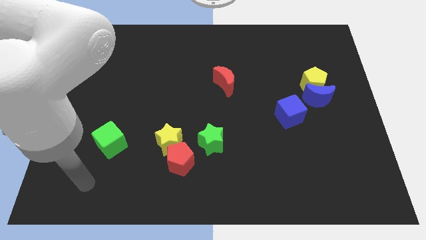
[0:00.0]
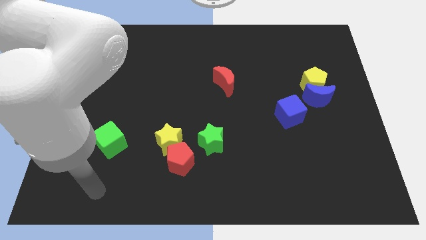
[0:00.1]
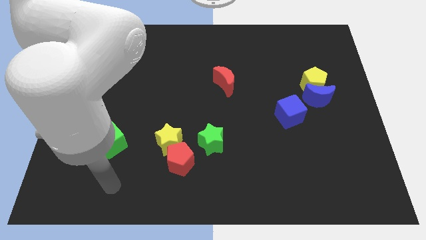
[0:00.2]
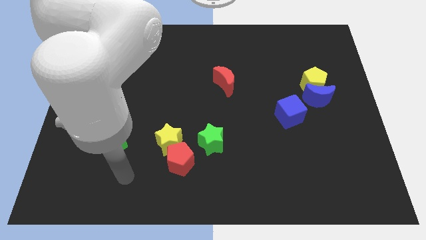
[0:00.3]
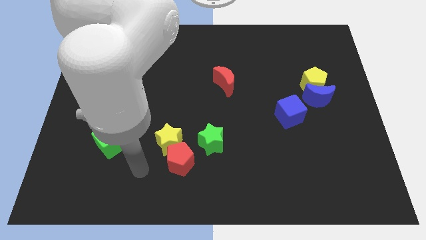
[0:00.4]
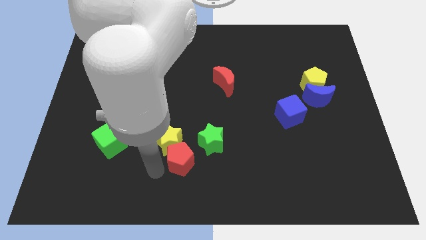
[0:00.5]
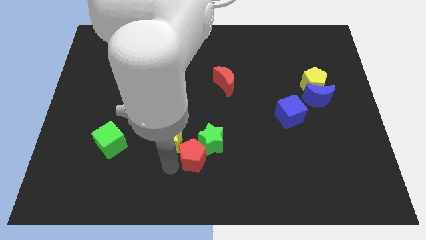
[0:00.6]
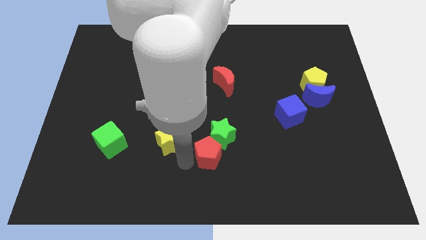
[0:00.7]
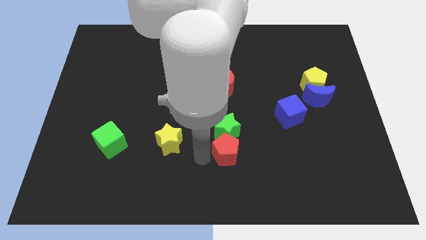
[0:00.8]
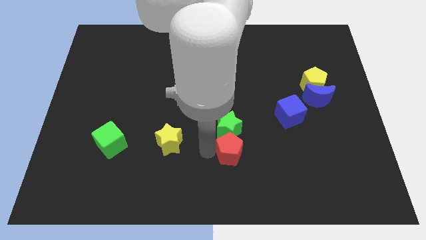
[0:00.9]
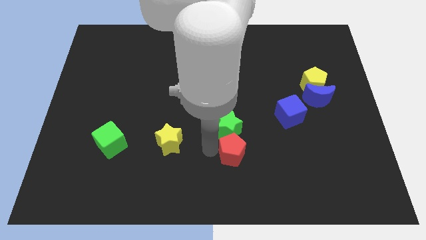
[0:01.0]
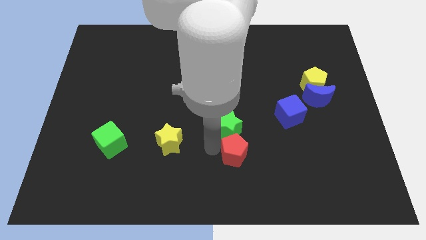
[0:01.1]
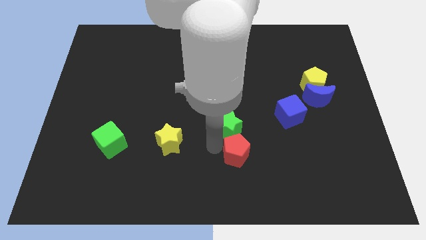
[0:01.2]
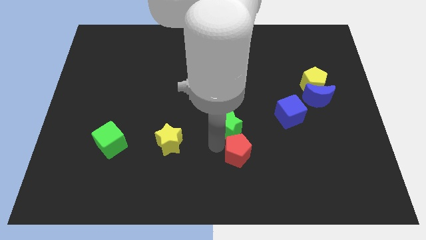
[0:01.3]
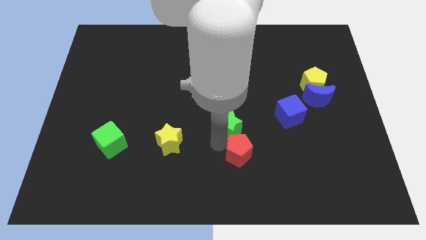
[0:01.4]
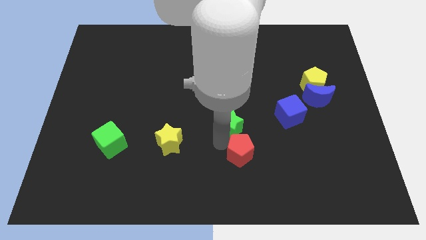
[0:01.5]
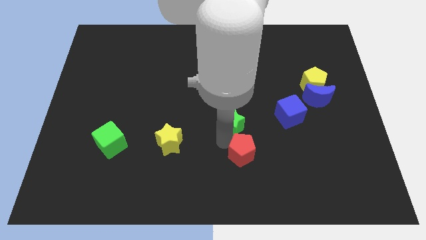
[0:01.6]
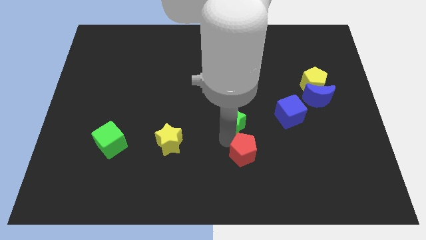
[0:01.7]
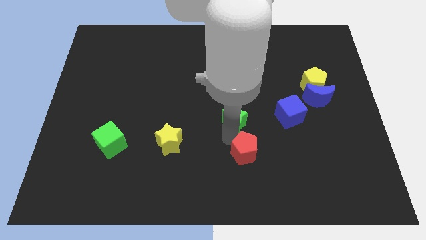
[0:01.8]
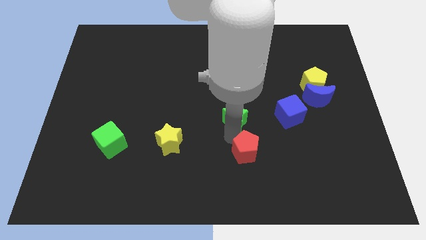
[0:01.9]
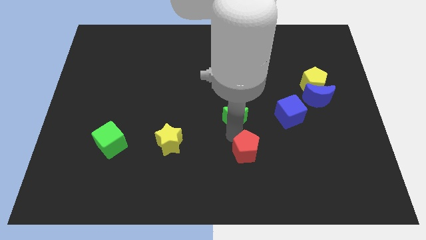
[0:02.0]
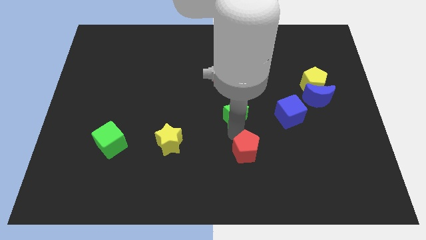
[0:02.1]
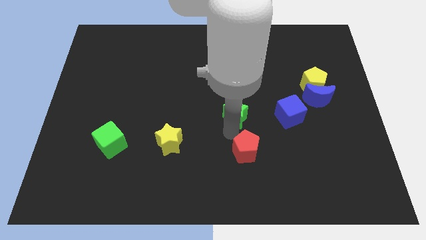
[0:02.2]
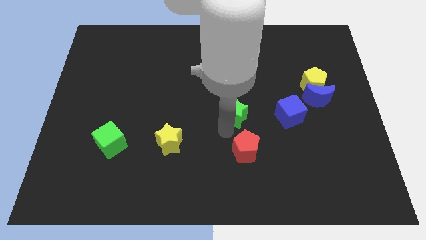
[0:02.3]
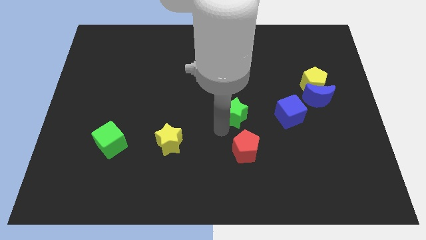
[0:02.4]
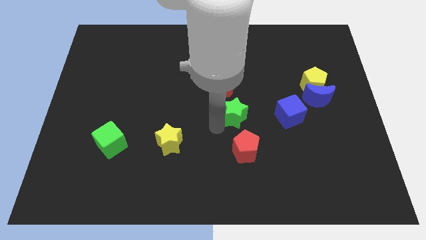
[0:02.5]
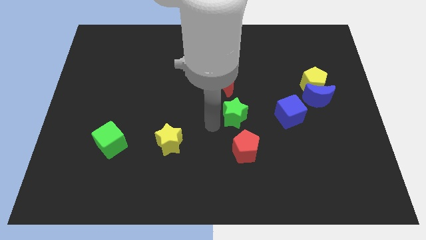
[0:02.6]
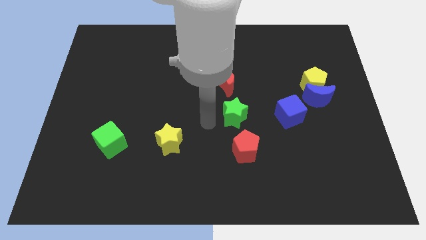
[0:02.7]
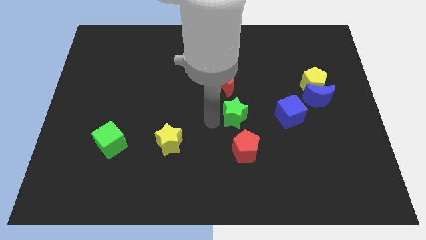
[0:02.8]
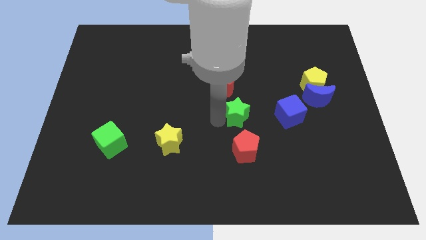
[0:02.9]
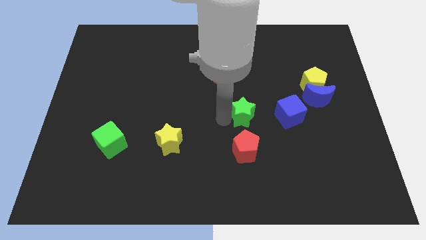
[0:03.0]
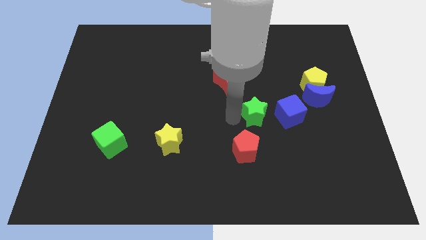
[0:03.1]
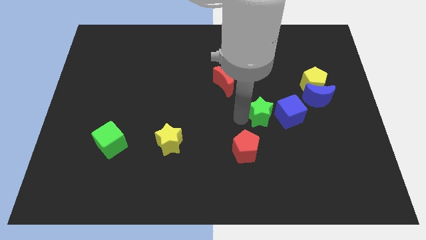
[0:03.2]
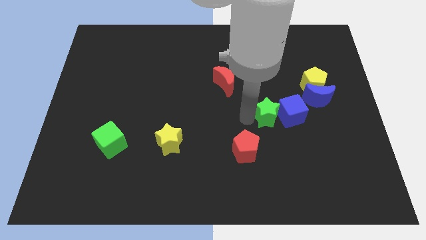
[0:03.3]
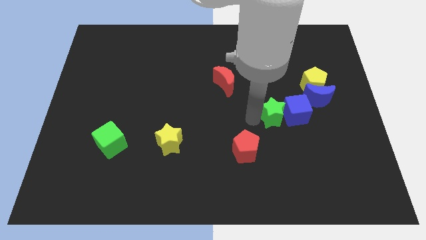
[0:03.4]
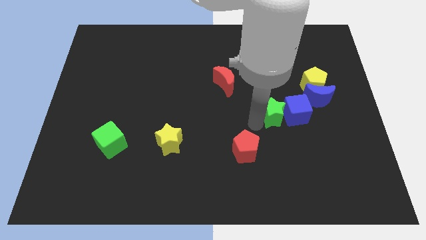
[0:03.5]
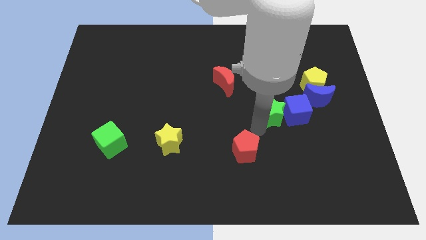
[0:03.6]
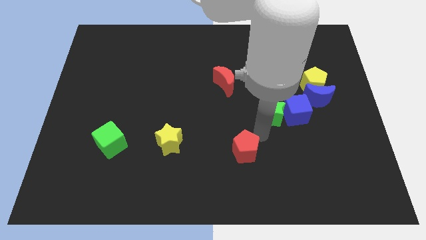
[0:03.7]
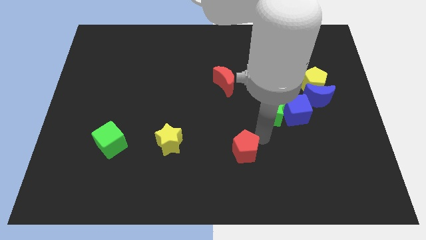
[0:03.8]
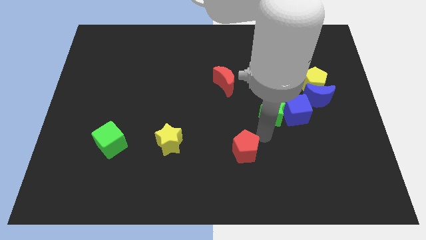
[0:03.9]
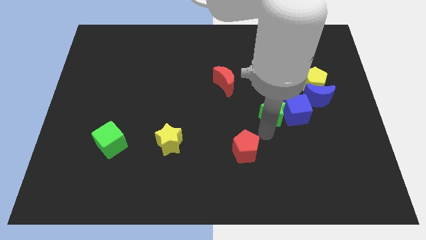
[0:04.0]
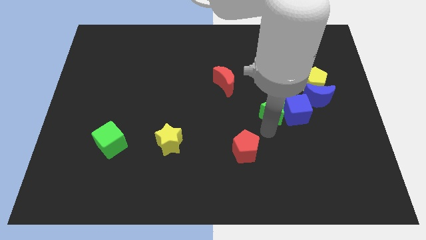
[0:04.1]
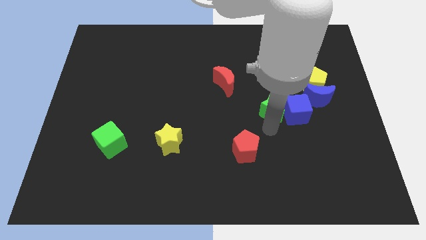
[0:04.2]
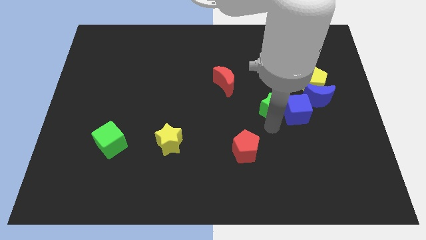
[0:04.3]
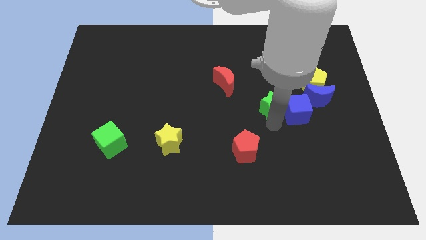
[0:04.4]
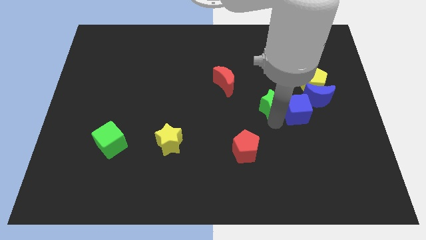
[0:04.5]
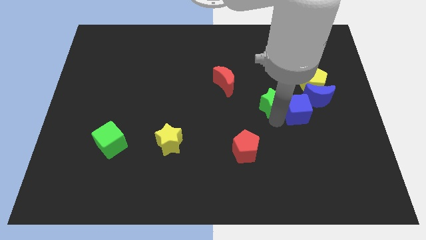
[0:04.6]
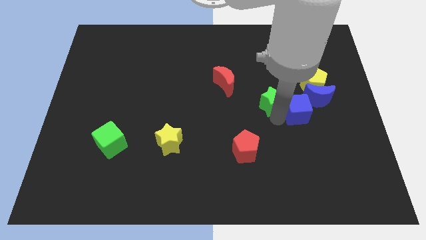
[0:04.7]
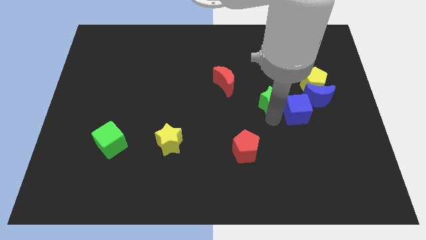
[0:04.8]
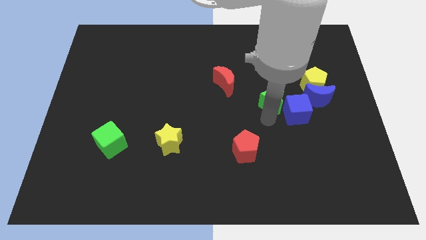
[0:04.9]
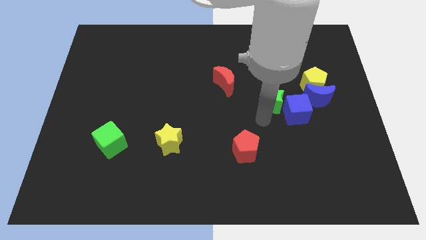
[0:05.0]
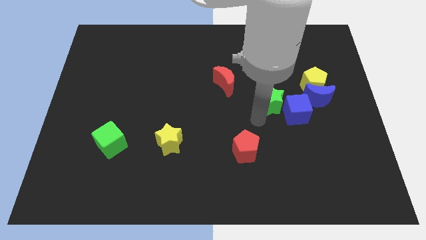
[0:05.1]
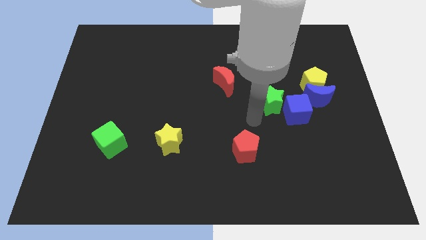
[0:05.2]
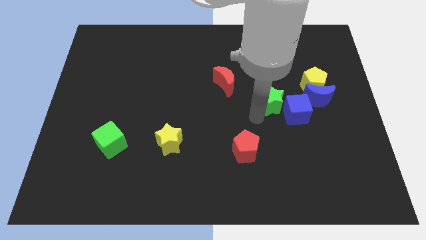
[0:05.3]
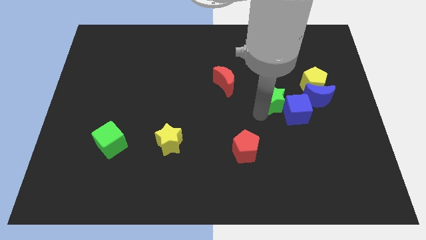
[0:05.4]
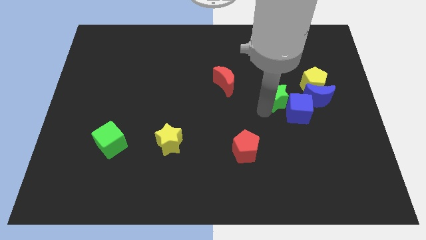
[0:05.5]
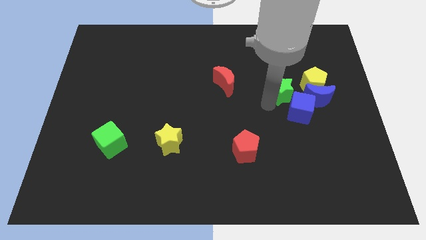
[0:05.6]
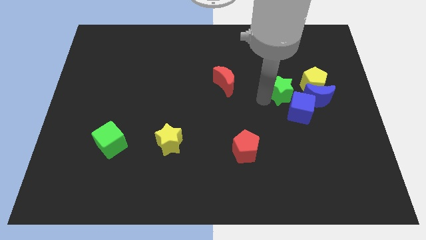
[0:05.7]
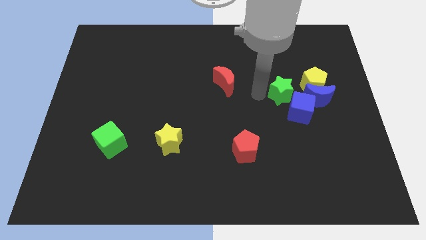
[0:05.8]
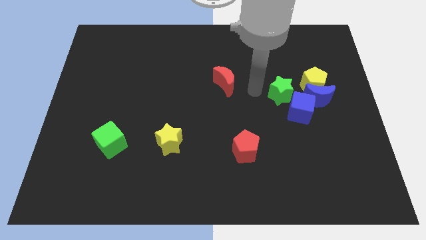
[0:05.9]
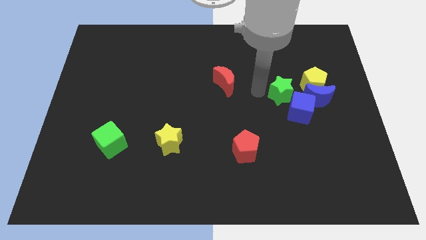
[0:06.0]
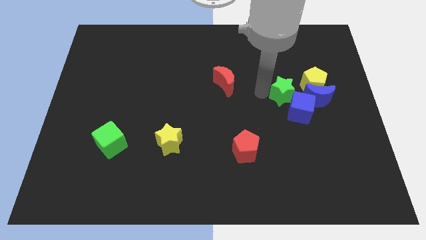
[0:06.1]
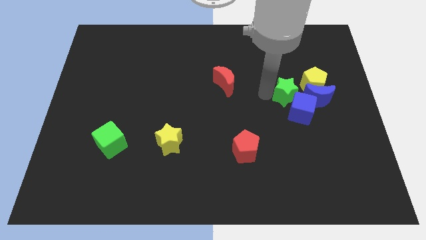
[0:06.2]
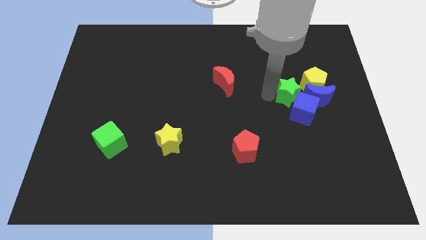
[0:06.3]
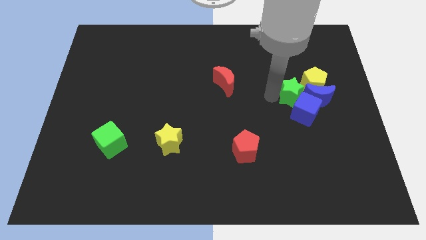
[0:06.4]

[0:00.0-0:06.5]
slide the green star close to the blue moon

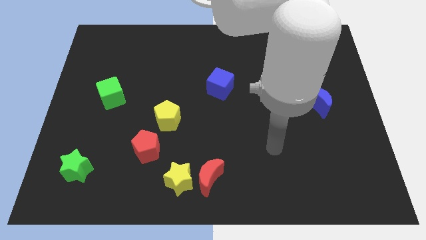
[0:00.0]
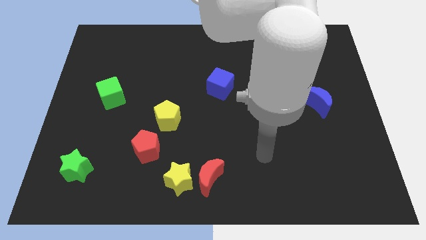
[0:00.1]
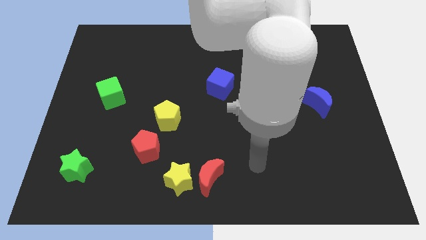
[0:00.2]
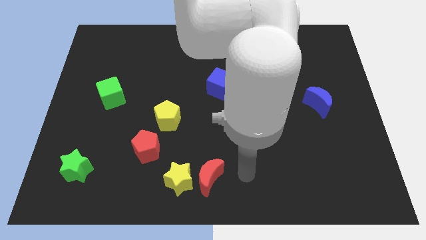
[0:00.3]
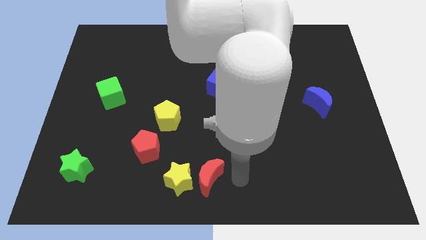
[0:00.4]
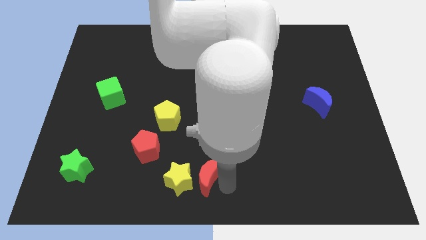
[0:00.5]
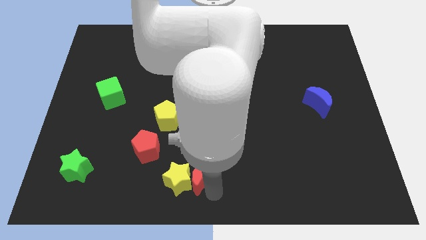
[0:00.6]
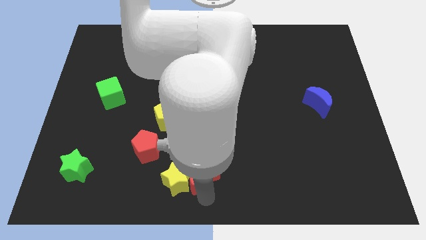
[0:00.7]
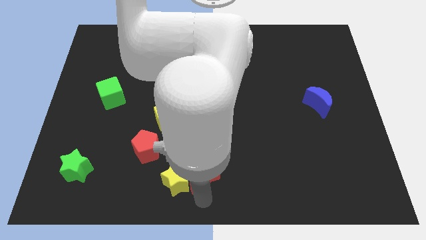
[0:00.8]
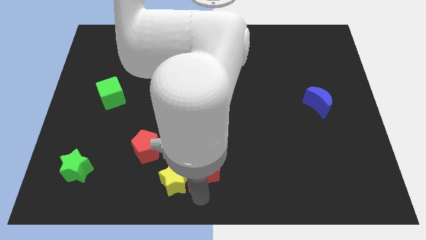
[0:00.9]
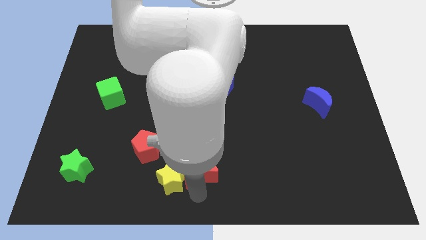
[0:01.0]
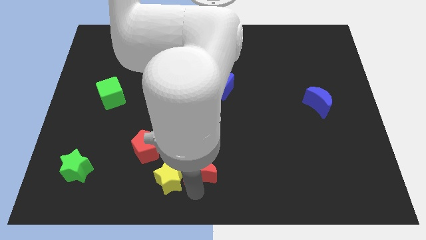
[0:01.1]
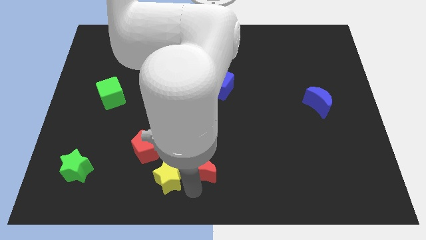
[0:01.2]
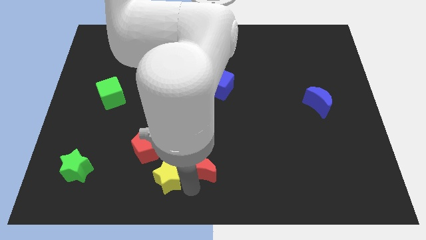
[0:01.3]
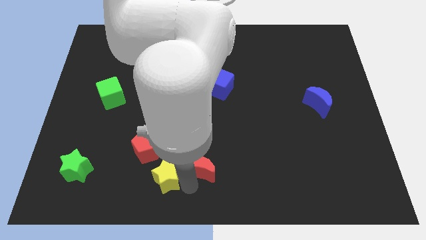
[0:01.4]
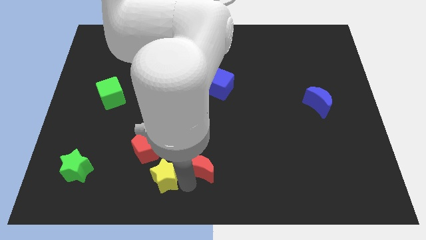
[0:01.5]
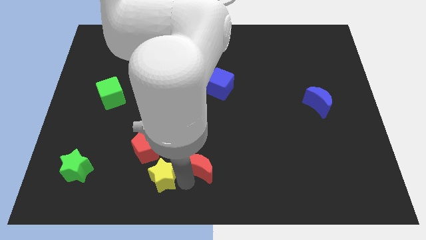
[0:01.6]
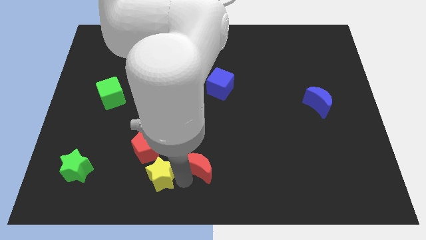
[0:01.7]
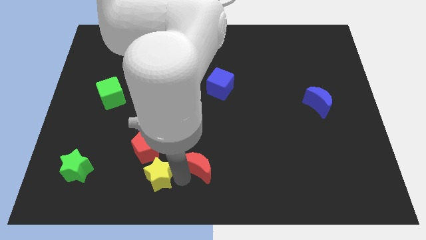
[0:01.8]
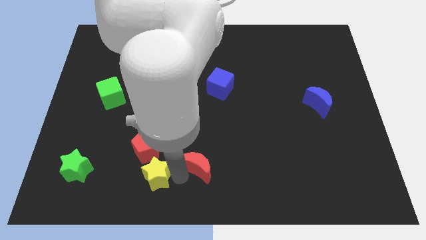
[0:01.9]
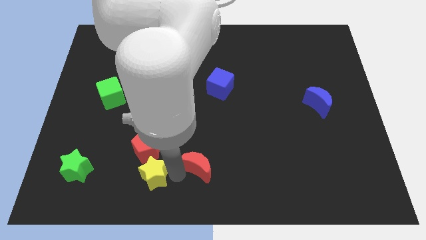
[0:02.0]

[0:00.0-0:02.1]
slide the yellow star close to the red pentagon

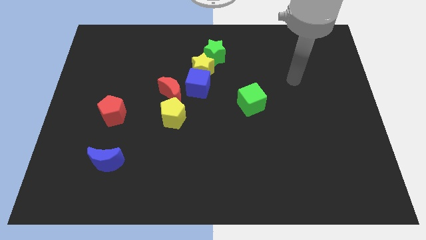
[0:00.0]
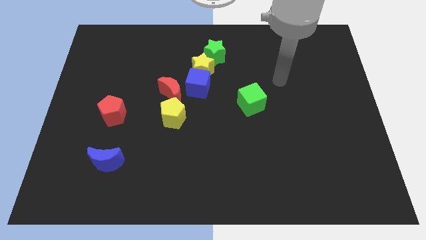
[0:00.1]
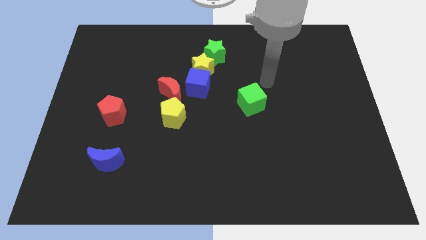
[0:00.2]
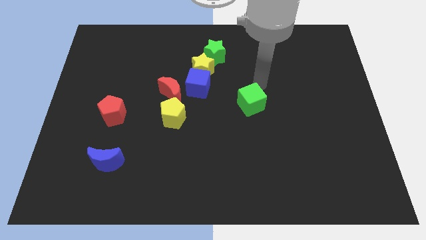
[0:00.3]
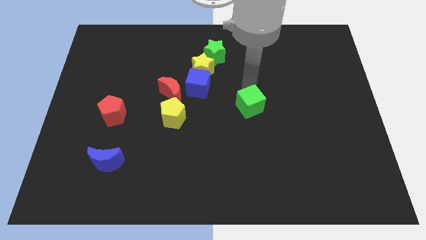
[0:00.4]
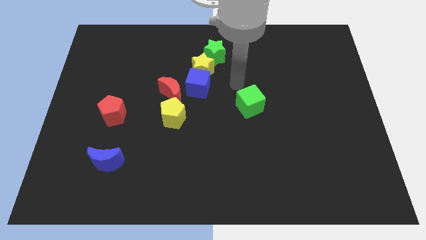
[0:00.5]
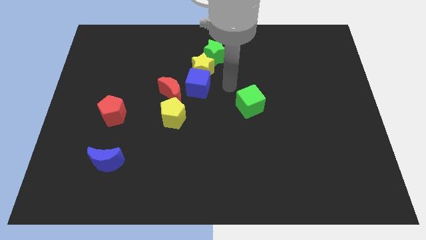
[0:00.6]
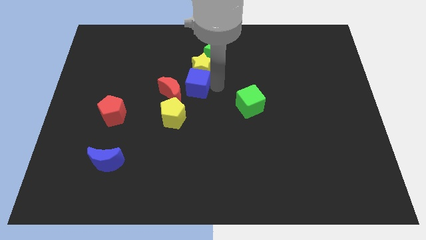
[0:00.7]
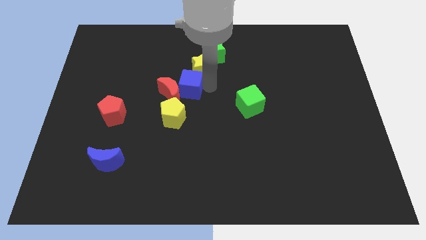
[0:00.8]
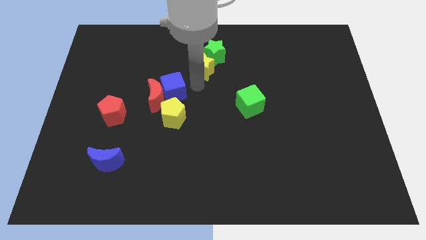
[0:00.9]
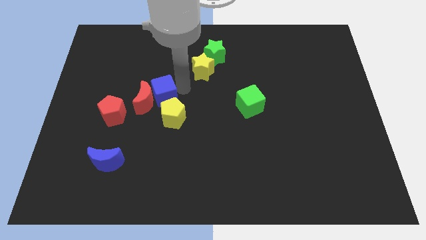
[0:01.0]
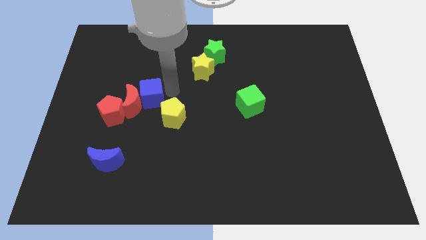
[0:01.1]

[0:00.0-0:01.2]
push the red moon to the red pentagon
